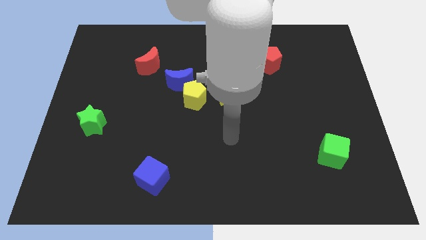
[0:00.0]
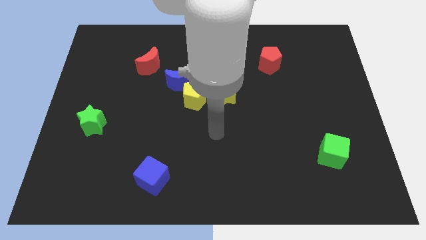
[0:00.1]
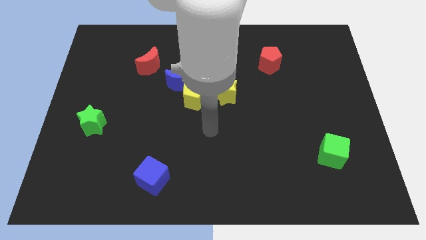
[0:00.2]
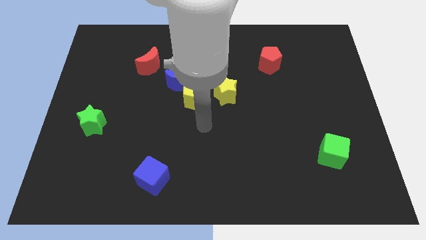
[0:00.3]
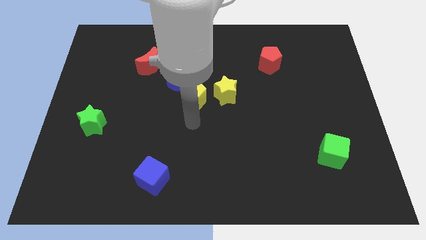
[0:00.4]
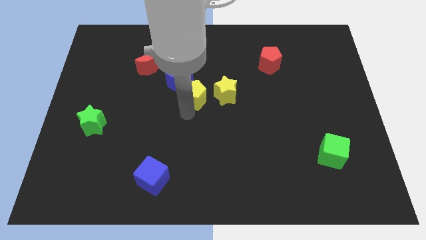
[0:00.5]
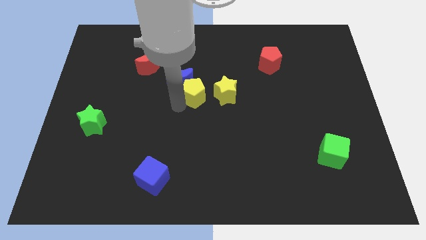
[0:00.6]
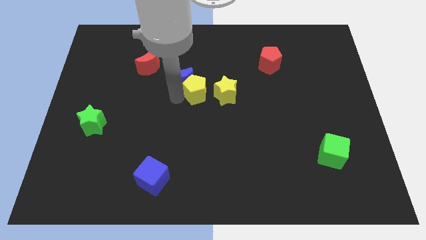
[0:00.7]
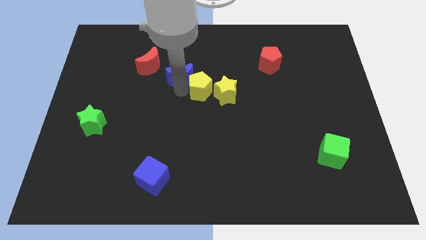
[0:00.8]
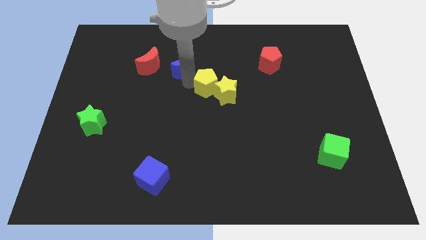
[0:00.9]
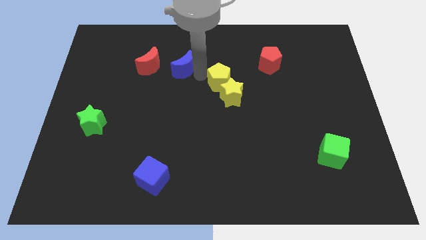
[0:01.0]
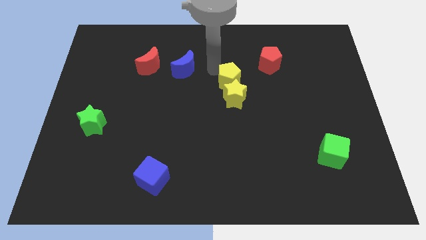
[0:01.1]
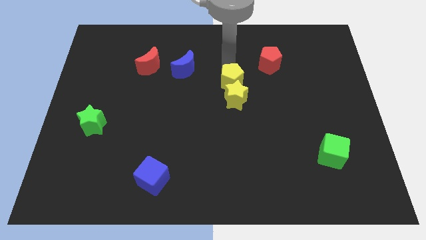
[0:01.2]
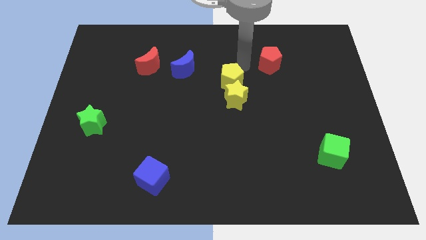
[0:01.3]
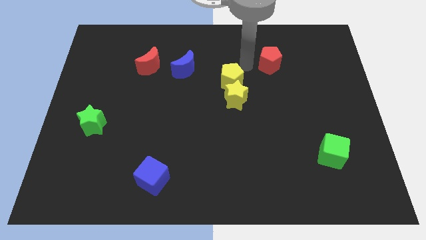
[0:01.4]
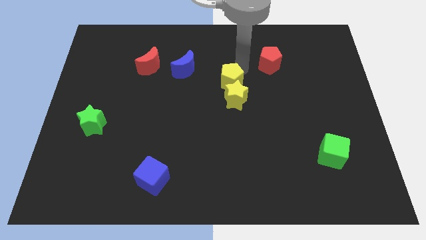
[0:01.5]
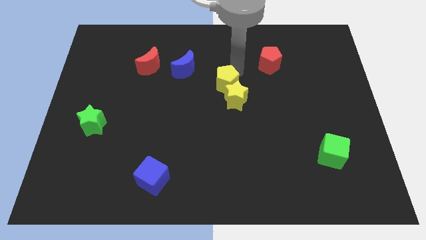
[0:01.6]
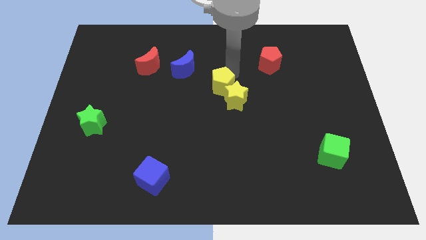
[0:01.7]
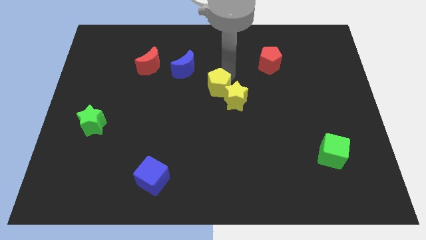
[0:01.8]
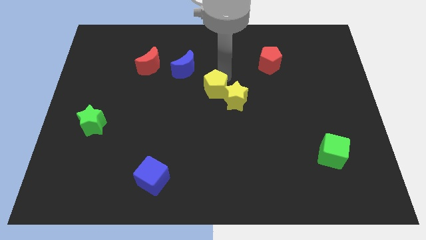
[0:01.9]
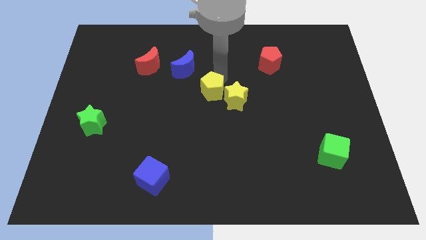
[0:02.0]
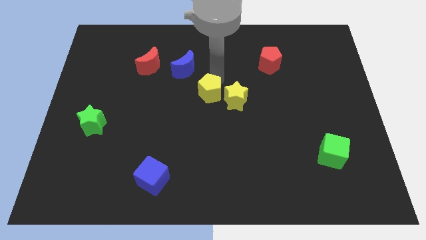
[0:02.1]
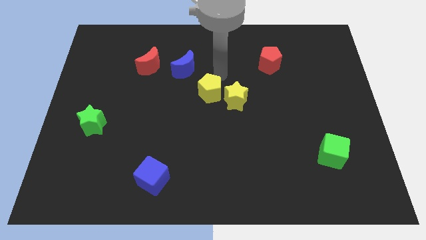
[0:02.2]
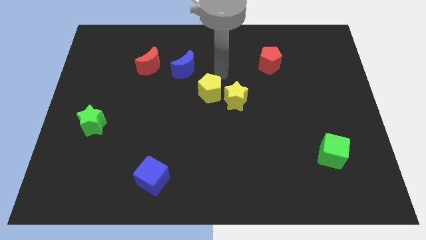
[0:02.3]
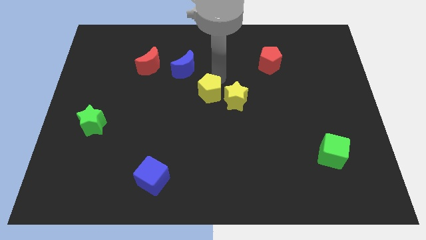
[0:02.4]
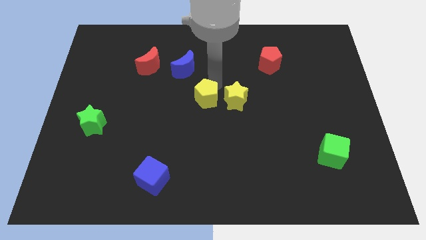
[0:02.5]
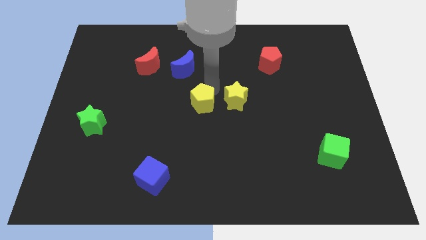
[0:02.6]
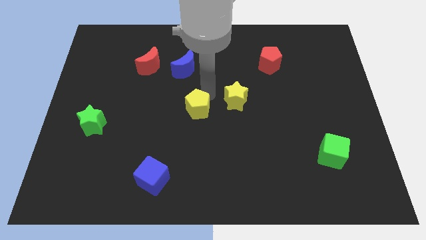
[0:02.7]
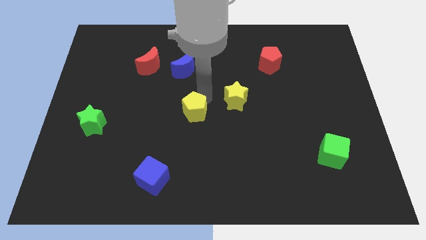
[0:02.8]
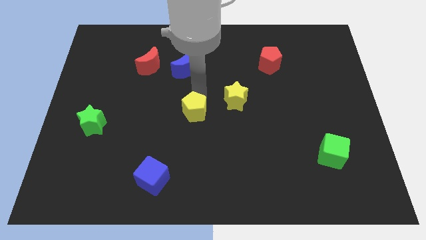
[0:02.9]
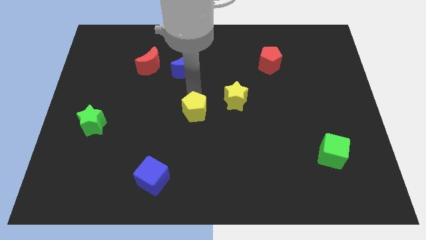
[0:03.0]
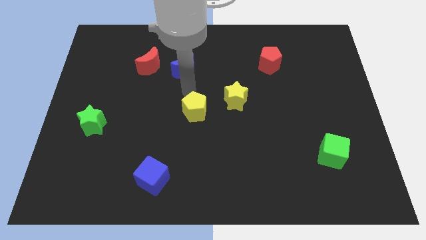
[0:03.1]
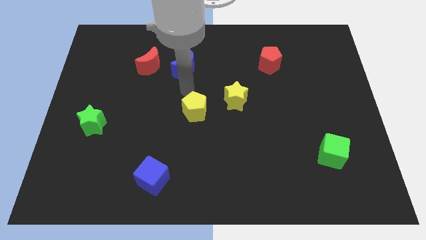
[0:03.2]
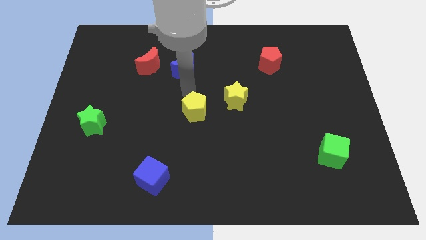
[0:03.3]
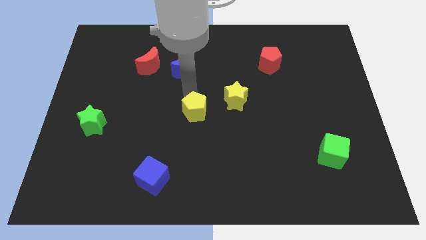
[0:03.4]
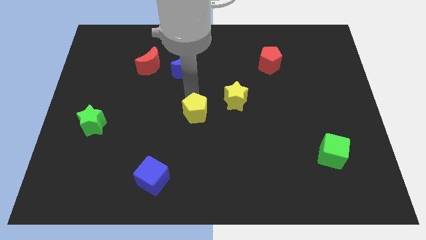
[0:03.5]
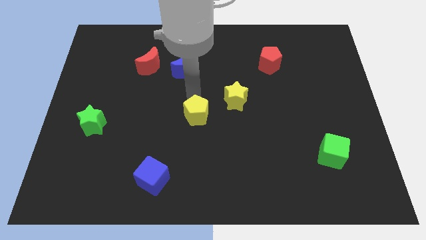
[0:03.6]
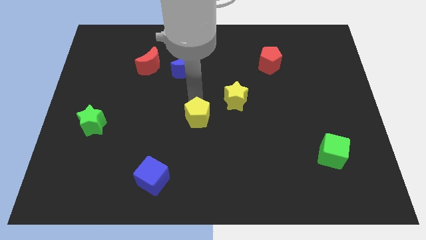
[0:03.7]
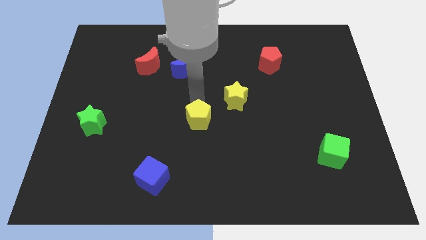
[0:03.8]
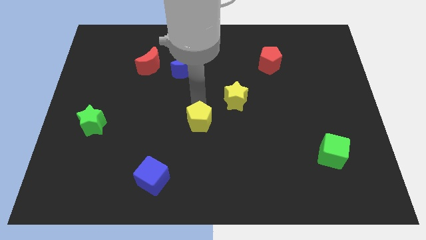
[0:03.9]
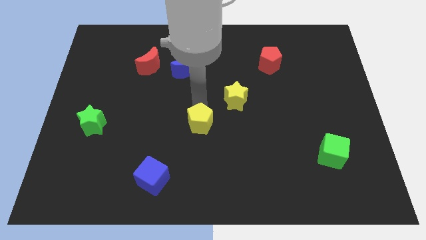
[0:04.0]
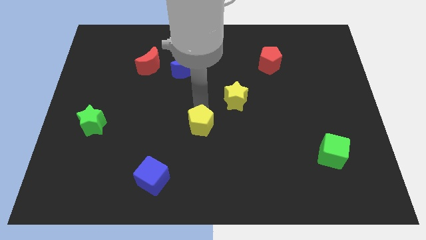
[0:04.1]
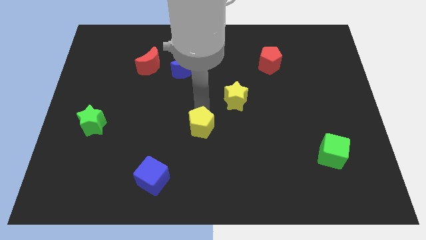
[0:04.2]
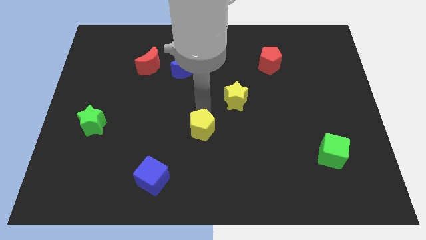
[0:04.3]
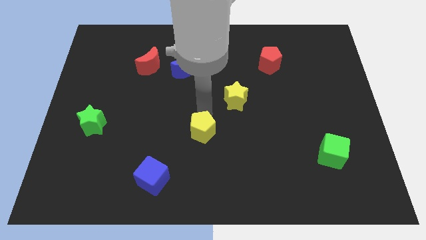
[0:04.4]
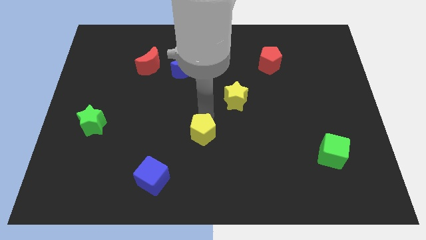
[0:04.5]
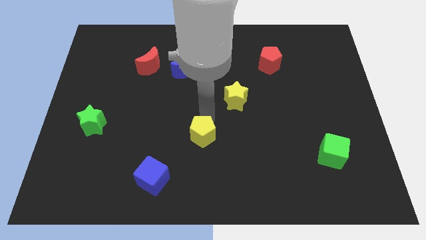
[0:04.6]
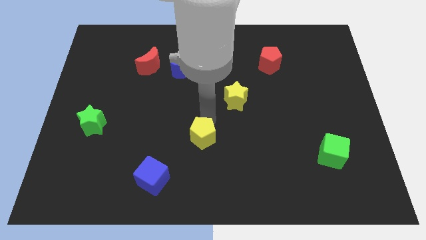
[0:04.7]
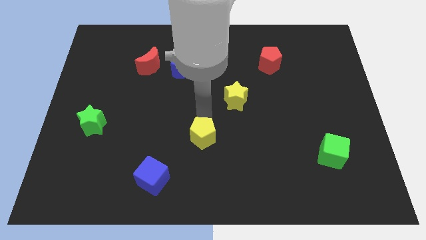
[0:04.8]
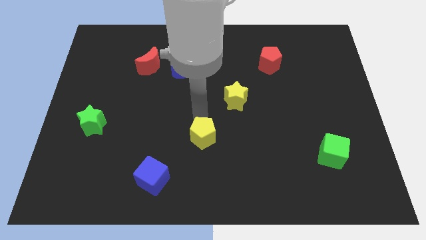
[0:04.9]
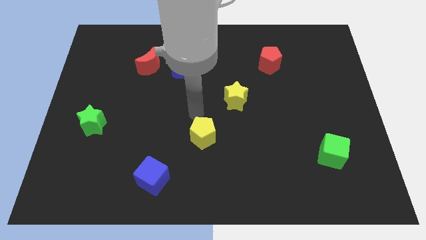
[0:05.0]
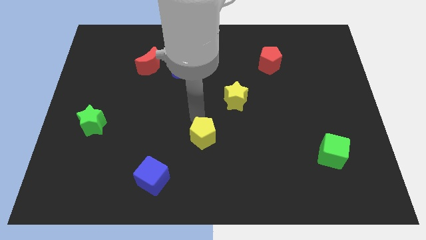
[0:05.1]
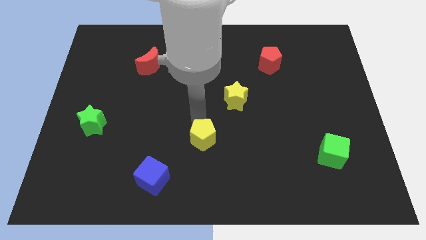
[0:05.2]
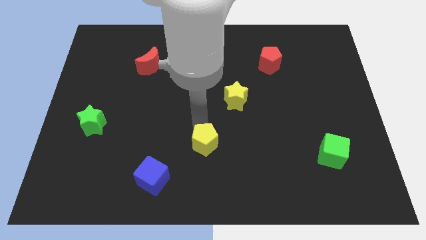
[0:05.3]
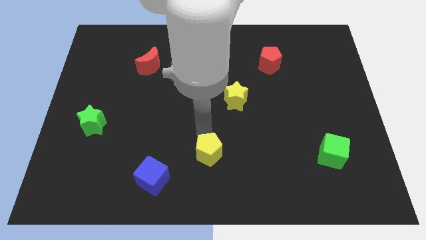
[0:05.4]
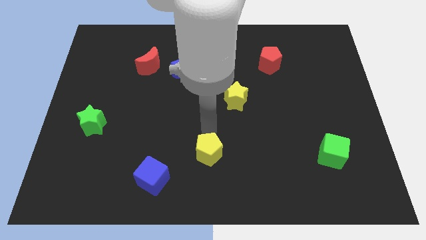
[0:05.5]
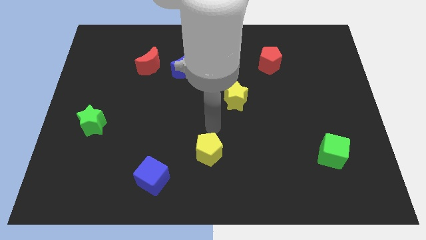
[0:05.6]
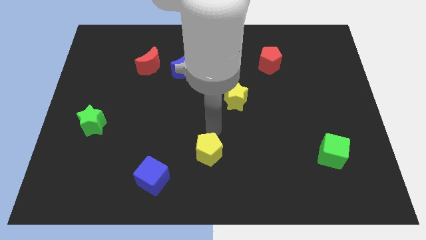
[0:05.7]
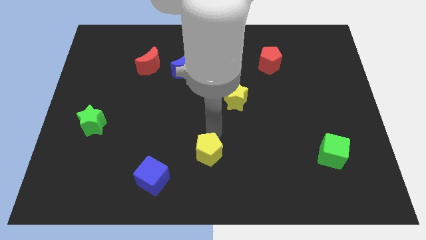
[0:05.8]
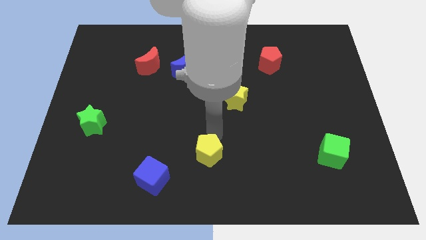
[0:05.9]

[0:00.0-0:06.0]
put the yellow pentagon to the bottom
